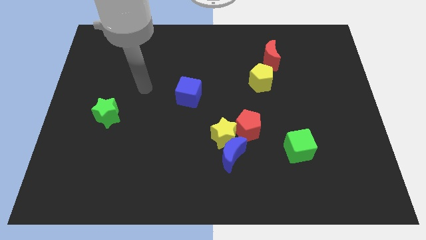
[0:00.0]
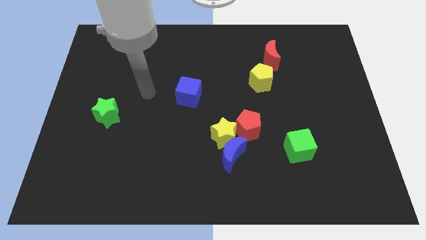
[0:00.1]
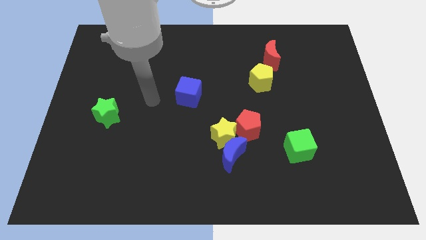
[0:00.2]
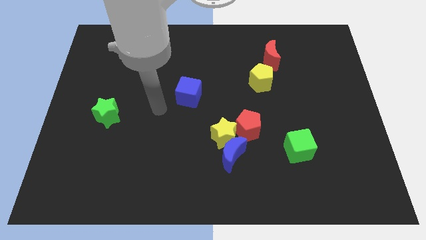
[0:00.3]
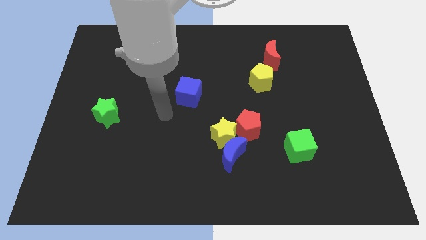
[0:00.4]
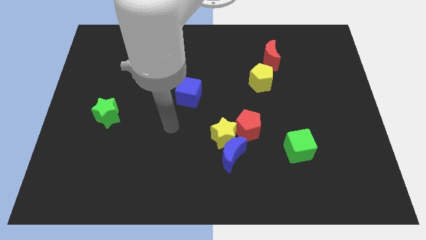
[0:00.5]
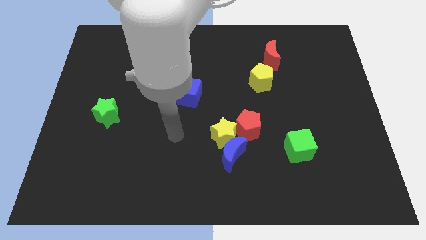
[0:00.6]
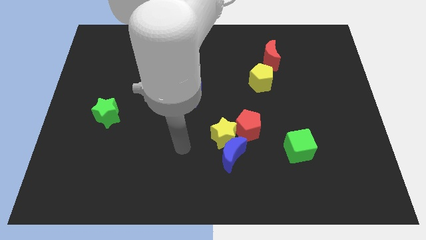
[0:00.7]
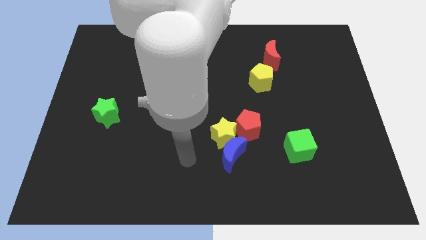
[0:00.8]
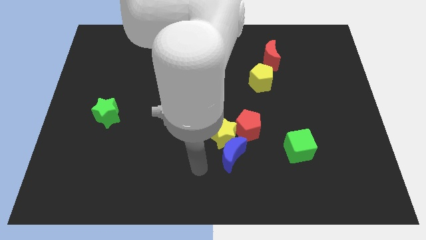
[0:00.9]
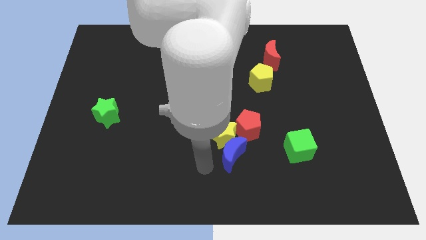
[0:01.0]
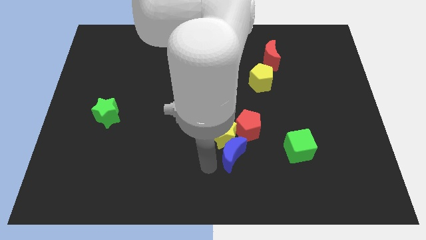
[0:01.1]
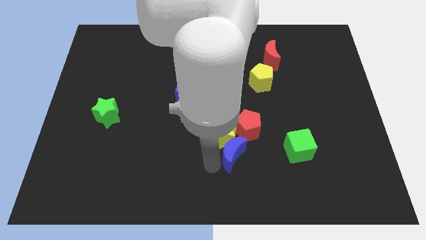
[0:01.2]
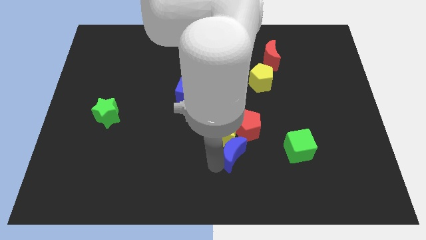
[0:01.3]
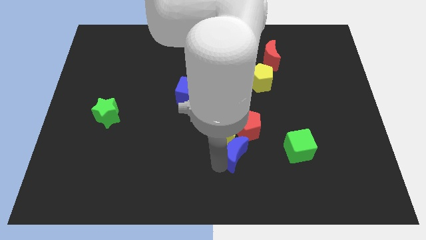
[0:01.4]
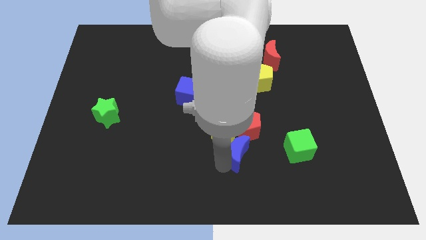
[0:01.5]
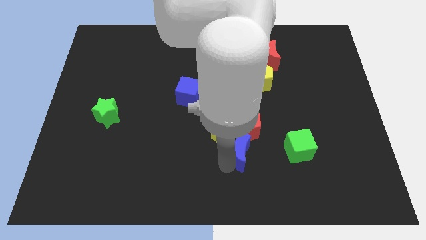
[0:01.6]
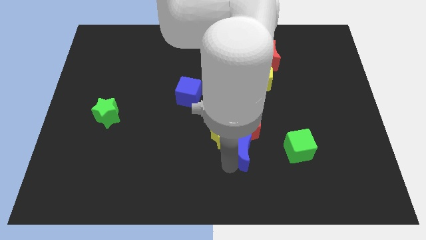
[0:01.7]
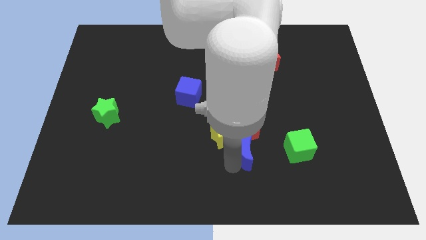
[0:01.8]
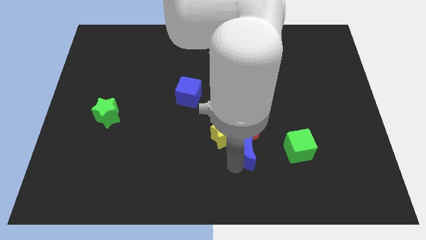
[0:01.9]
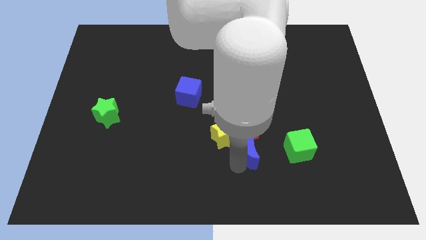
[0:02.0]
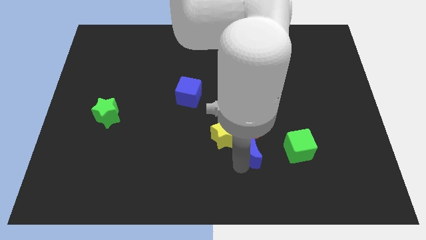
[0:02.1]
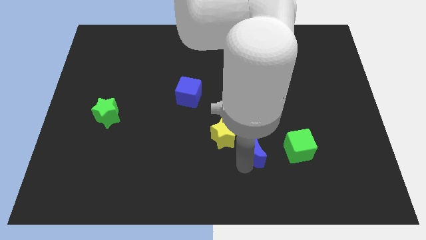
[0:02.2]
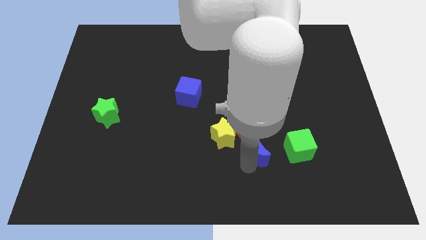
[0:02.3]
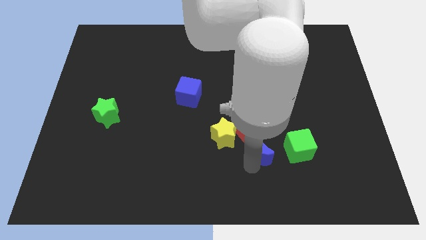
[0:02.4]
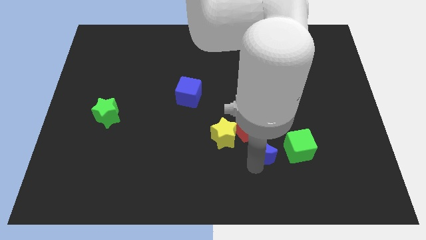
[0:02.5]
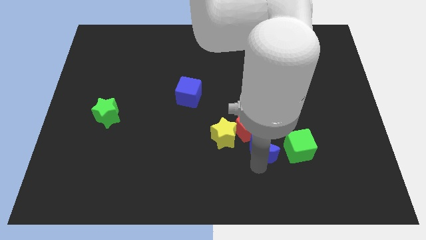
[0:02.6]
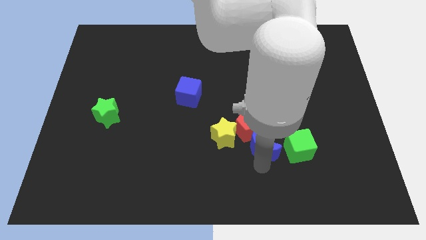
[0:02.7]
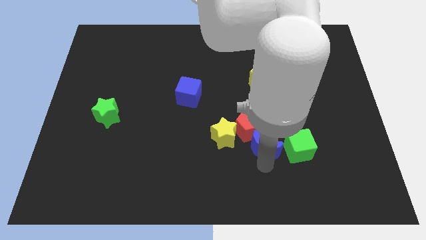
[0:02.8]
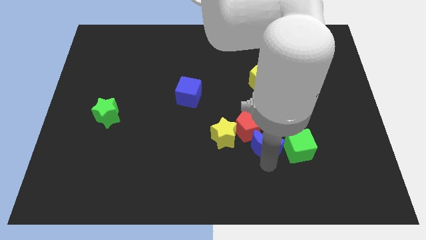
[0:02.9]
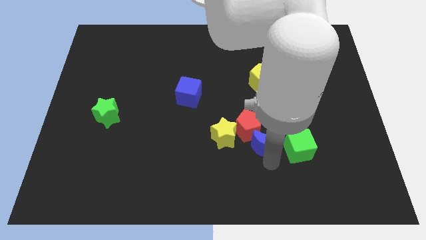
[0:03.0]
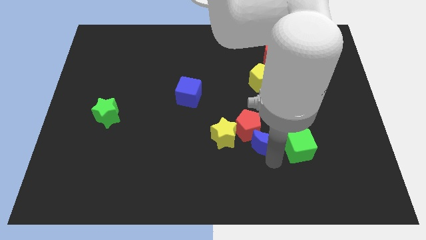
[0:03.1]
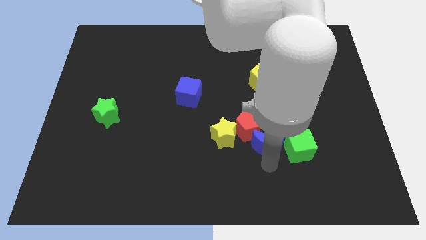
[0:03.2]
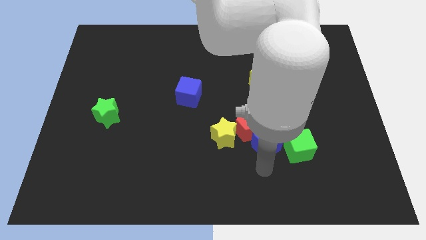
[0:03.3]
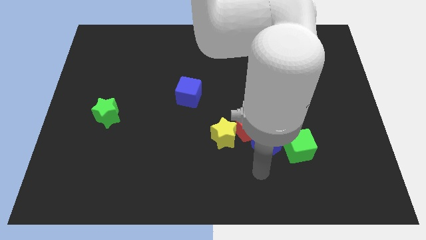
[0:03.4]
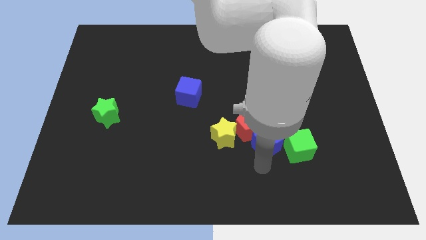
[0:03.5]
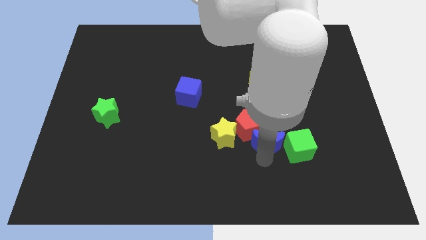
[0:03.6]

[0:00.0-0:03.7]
slightly push the blue moon up and right

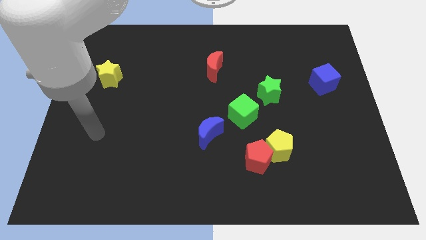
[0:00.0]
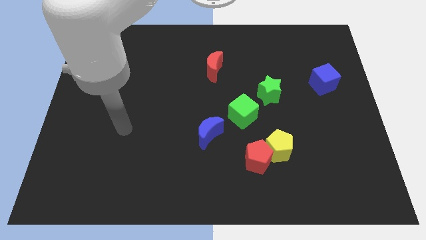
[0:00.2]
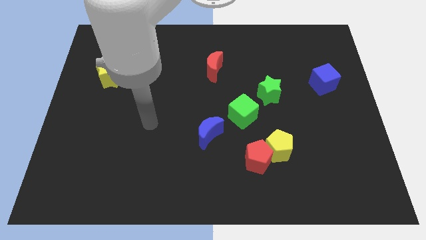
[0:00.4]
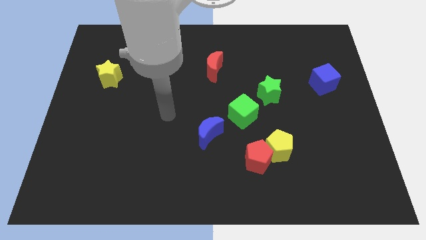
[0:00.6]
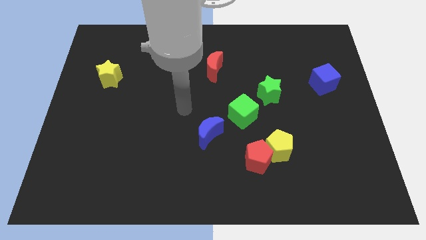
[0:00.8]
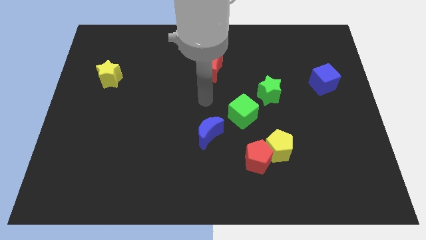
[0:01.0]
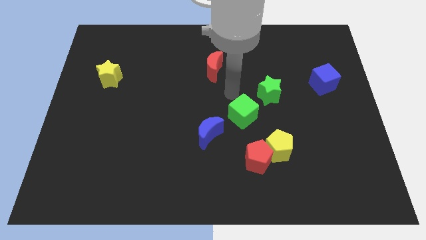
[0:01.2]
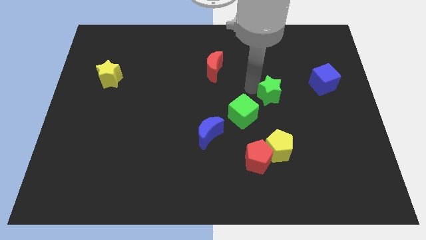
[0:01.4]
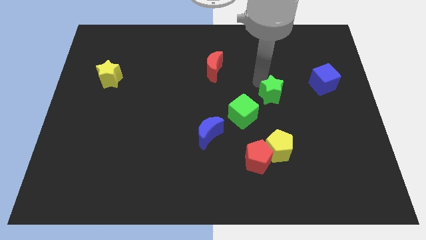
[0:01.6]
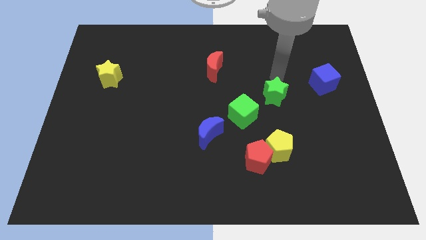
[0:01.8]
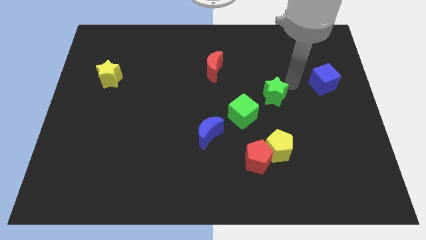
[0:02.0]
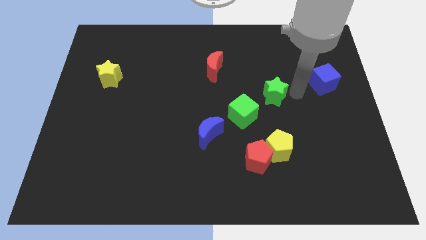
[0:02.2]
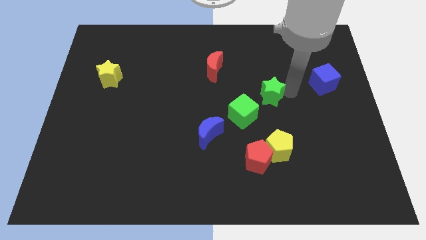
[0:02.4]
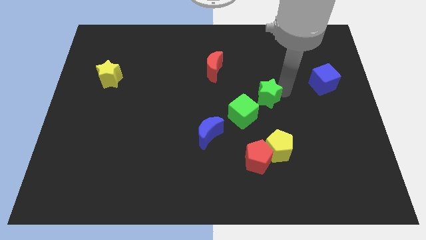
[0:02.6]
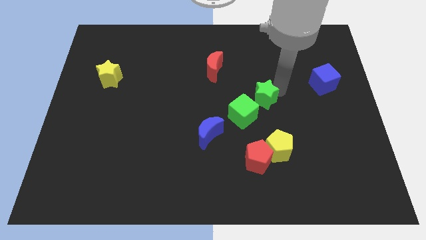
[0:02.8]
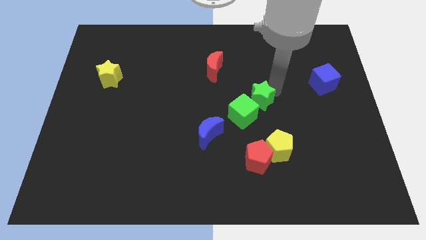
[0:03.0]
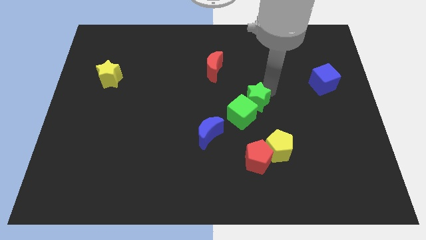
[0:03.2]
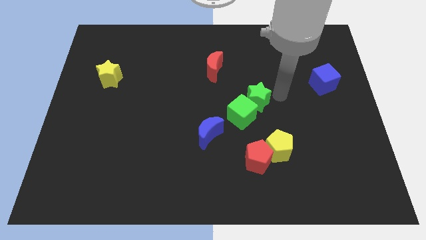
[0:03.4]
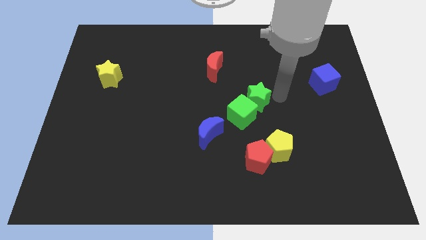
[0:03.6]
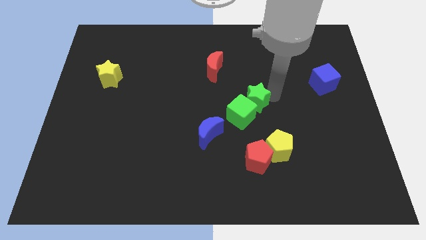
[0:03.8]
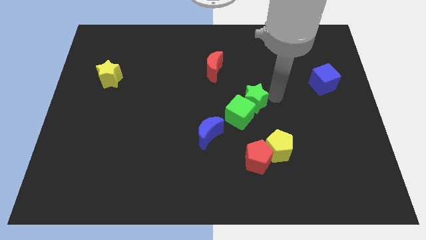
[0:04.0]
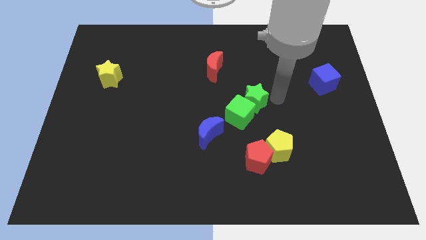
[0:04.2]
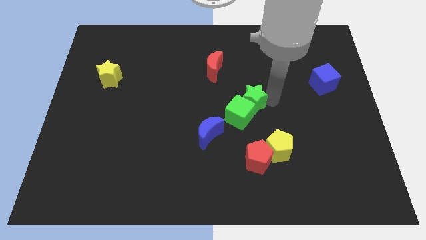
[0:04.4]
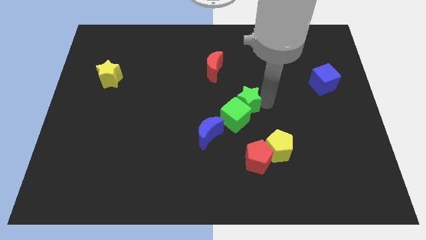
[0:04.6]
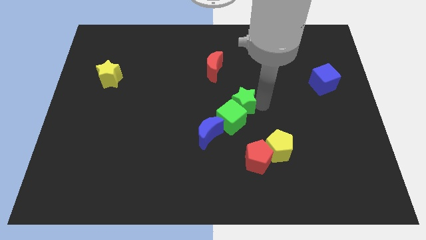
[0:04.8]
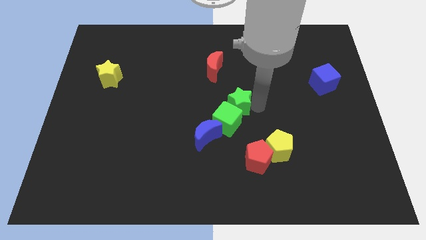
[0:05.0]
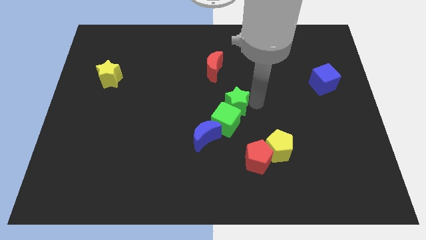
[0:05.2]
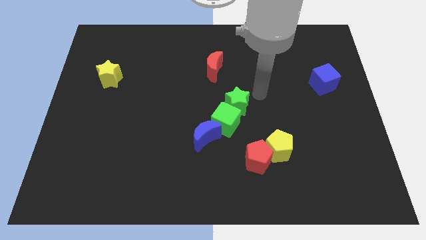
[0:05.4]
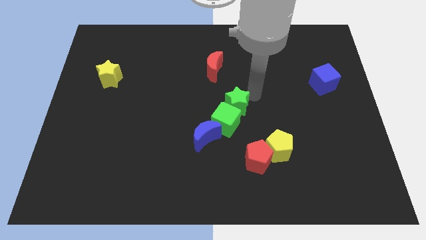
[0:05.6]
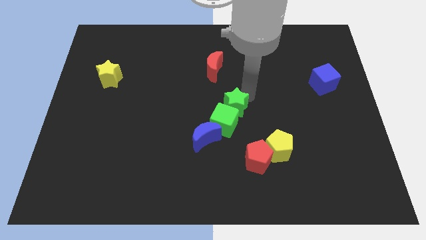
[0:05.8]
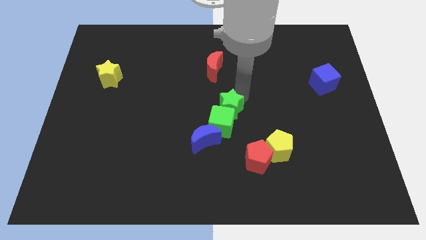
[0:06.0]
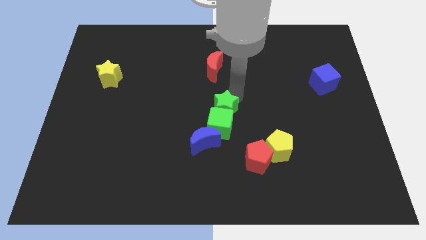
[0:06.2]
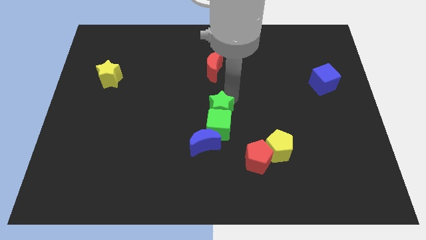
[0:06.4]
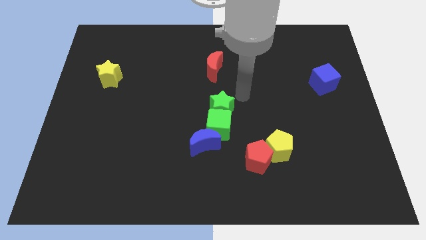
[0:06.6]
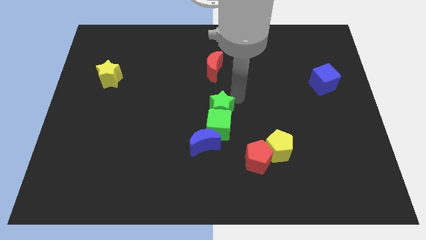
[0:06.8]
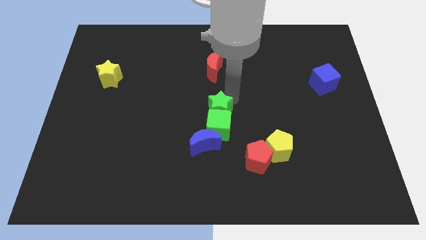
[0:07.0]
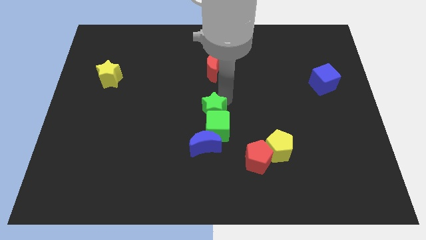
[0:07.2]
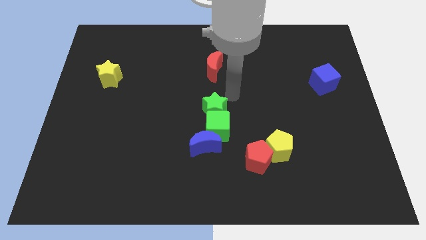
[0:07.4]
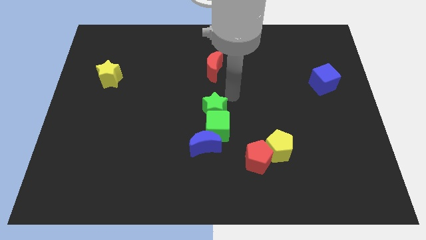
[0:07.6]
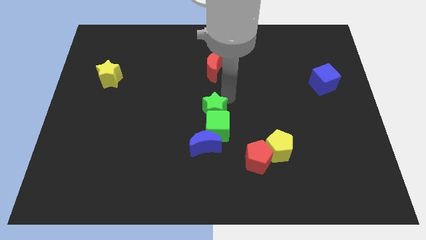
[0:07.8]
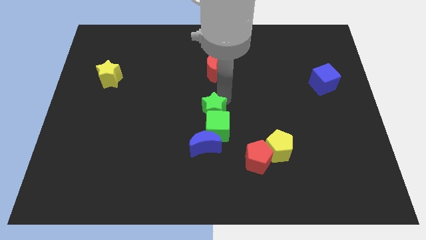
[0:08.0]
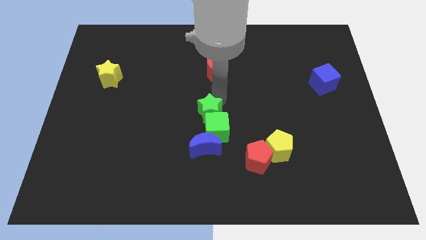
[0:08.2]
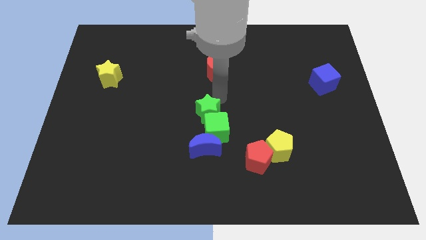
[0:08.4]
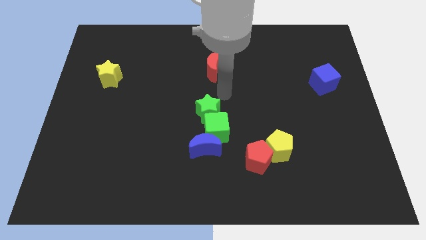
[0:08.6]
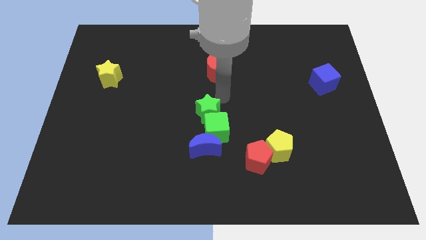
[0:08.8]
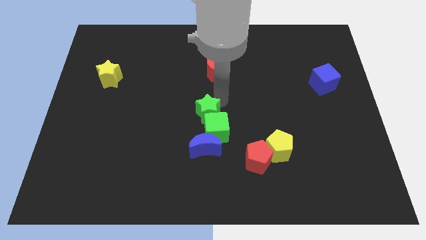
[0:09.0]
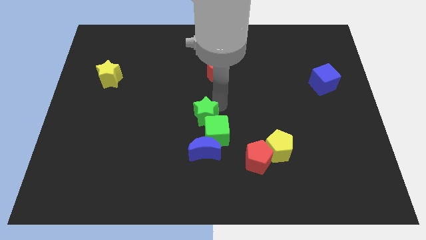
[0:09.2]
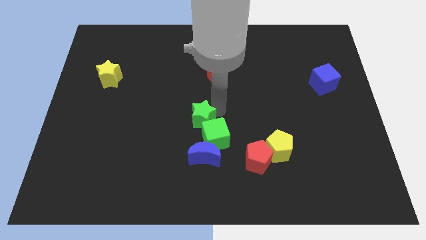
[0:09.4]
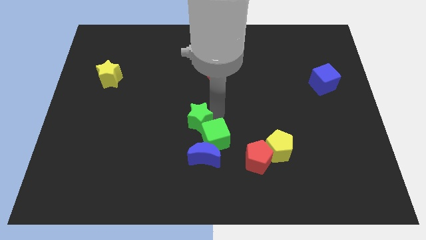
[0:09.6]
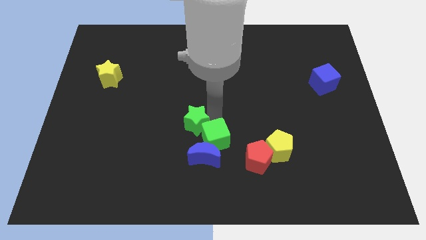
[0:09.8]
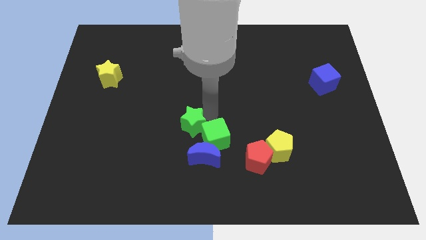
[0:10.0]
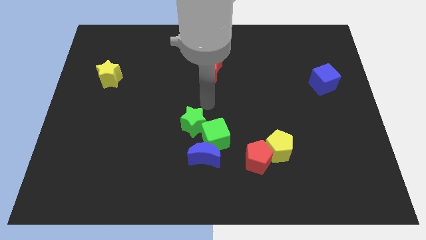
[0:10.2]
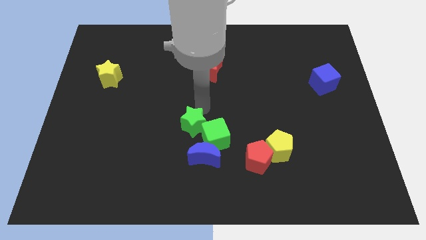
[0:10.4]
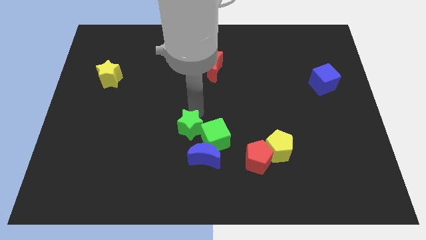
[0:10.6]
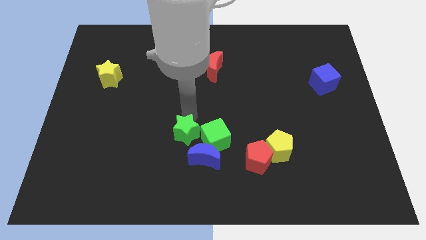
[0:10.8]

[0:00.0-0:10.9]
push the green star diagonally down and to the left
